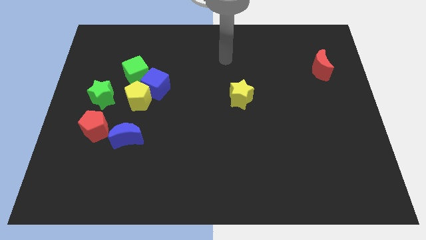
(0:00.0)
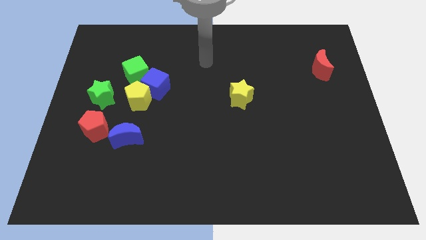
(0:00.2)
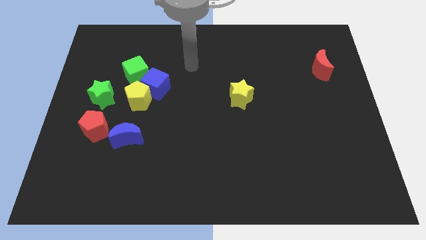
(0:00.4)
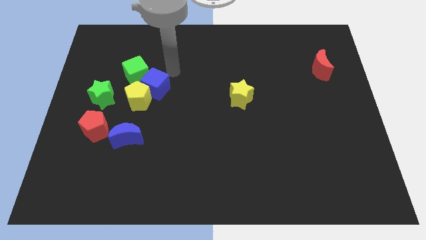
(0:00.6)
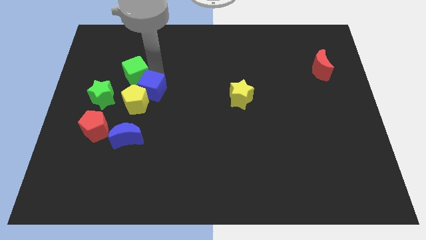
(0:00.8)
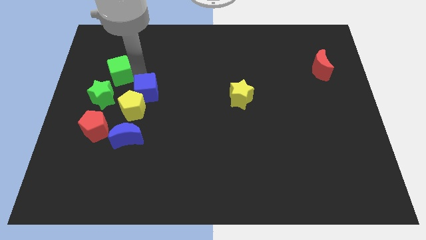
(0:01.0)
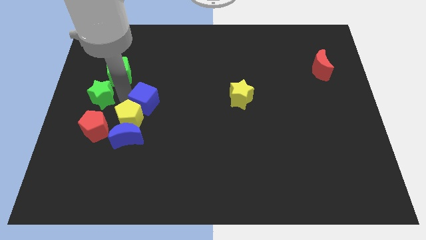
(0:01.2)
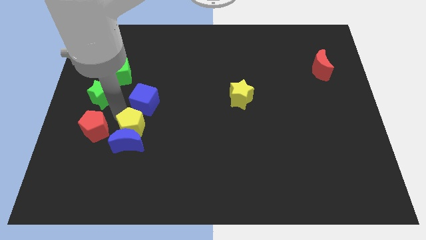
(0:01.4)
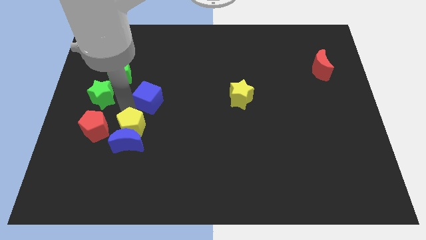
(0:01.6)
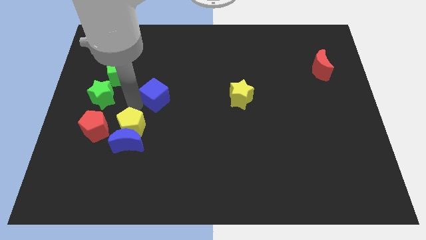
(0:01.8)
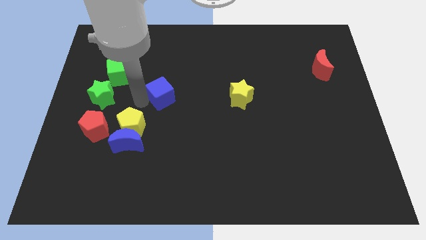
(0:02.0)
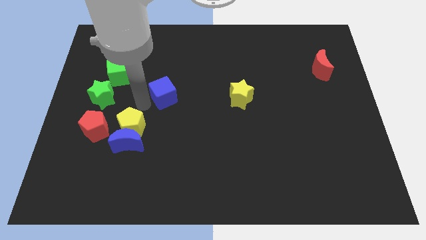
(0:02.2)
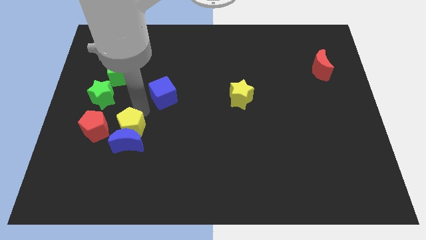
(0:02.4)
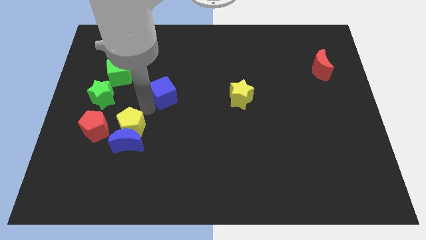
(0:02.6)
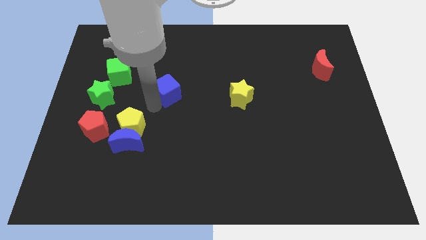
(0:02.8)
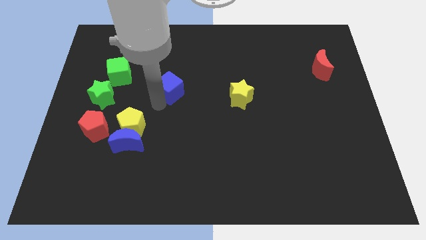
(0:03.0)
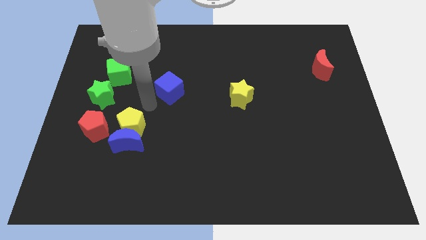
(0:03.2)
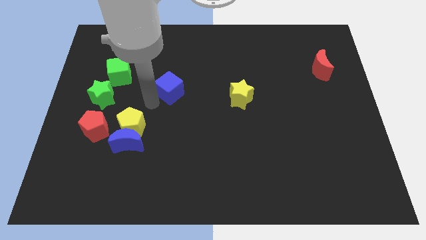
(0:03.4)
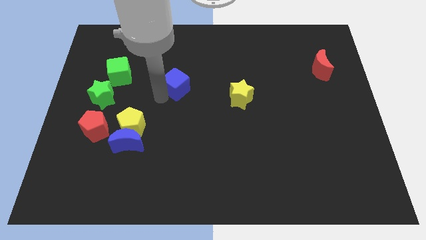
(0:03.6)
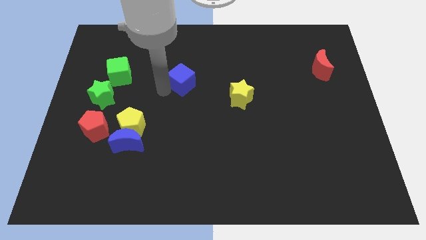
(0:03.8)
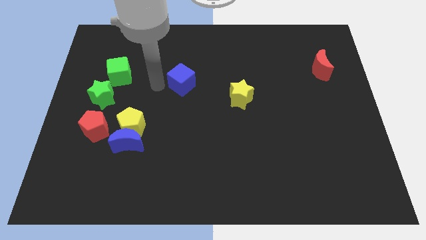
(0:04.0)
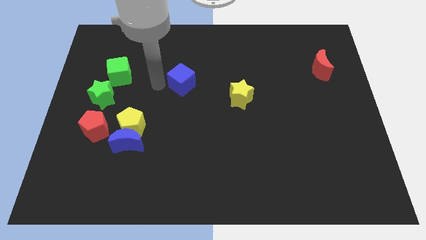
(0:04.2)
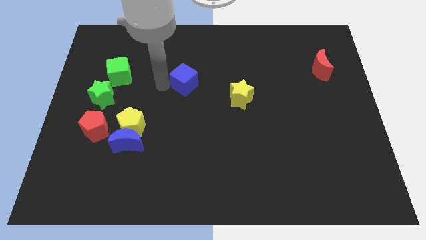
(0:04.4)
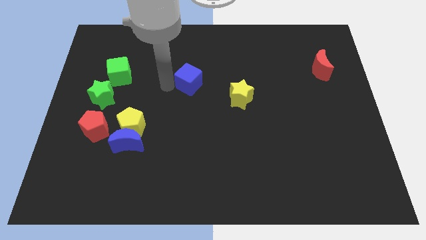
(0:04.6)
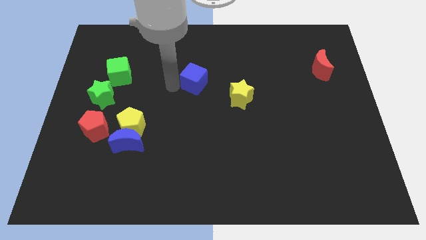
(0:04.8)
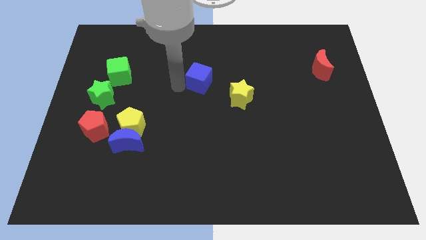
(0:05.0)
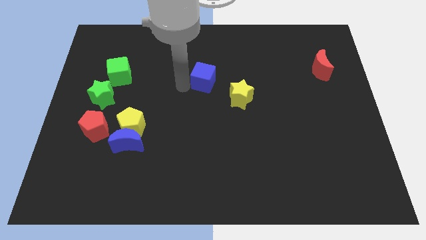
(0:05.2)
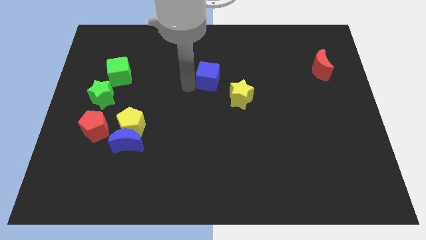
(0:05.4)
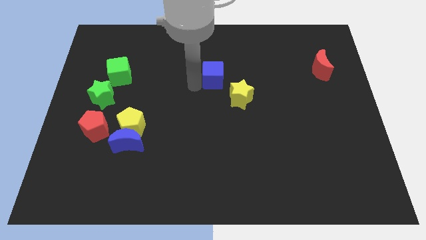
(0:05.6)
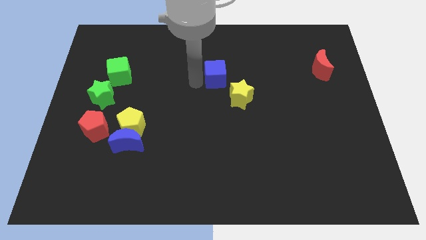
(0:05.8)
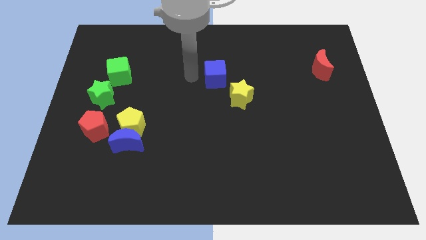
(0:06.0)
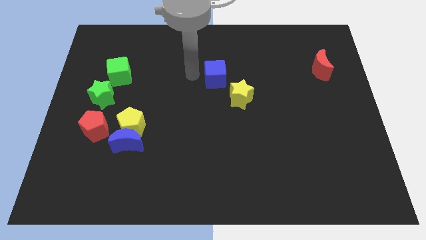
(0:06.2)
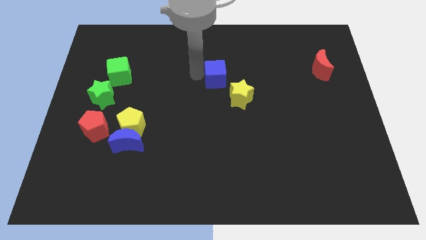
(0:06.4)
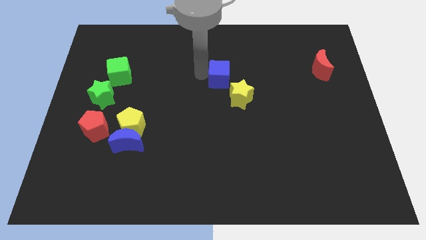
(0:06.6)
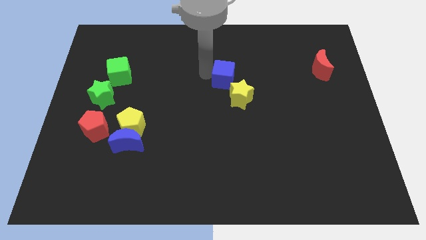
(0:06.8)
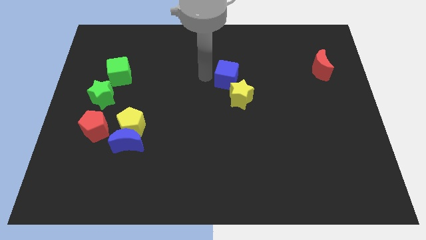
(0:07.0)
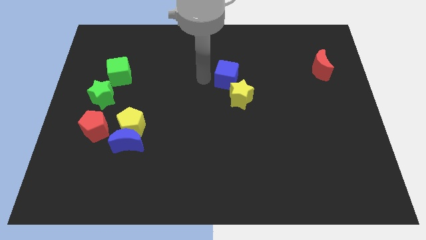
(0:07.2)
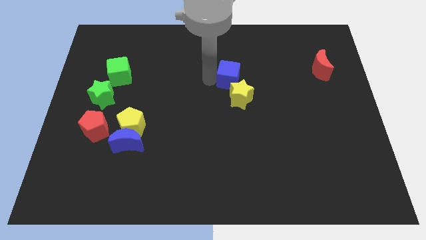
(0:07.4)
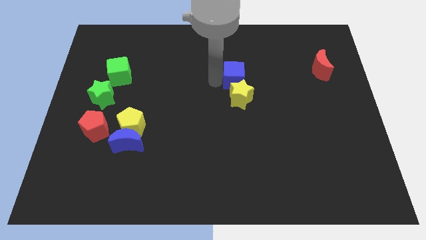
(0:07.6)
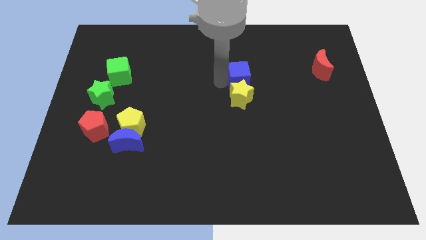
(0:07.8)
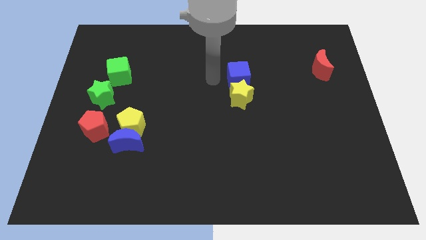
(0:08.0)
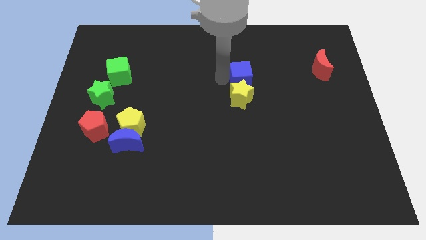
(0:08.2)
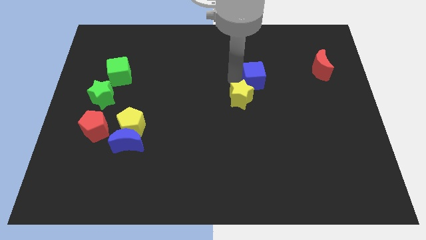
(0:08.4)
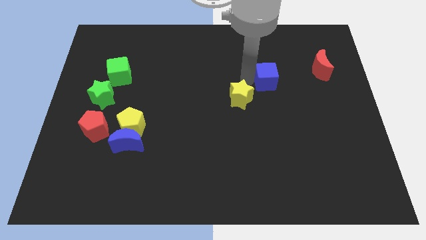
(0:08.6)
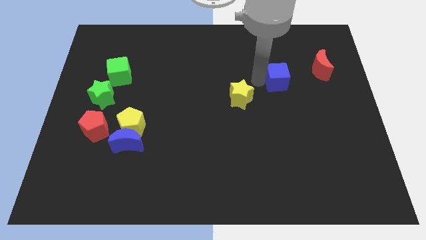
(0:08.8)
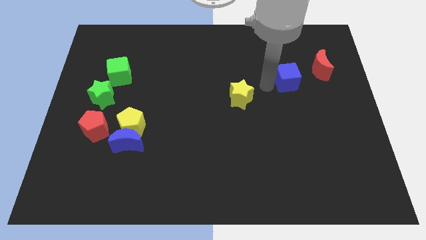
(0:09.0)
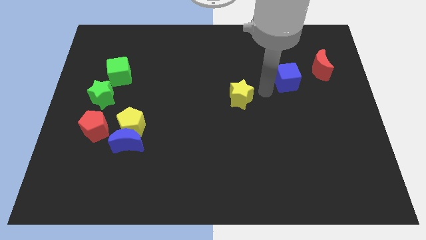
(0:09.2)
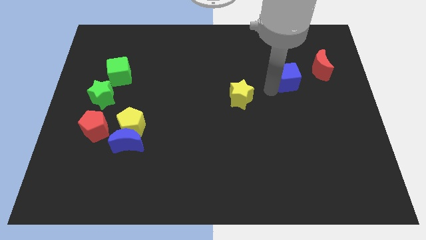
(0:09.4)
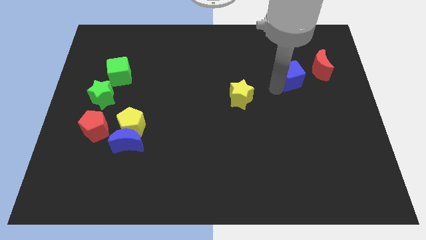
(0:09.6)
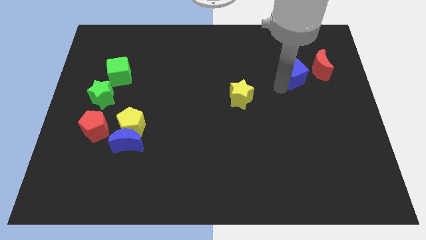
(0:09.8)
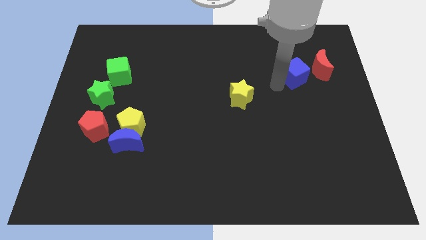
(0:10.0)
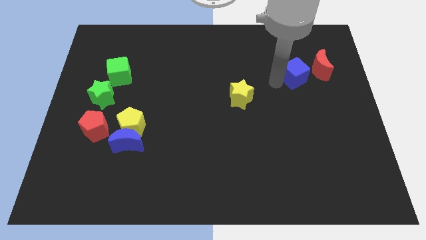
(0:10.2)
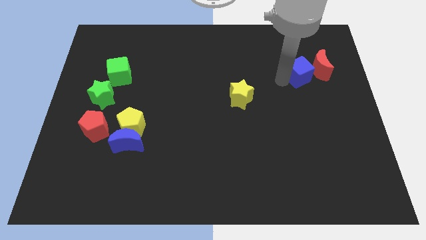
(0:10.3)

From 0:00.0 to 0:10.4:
put the blue cube close to the red moon

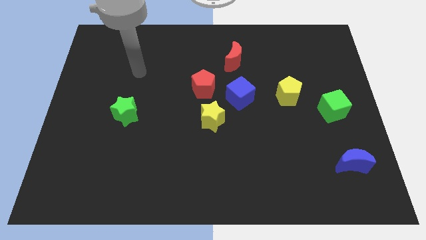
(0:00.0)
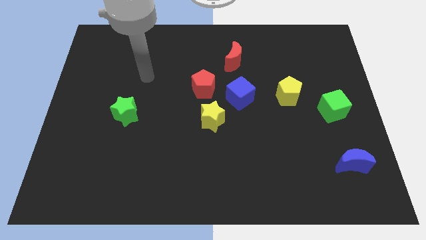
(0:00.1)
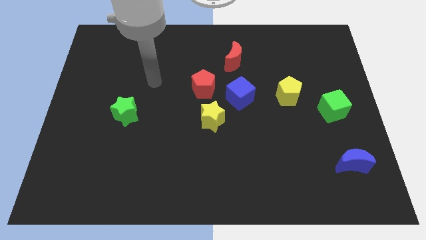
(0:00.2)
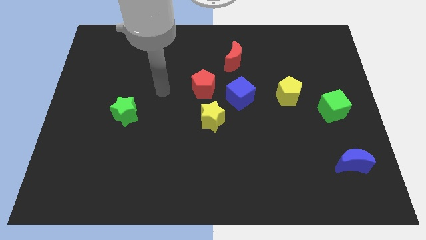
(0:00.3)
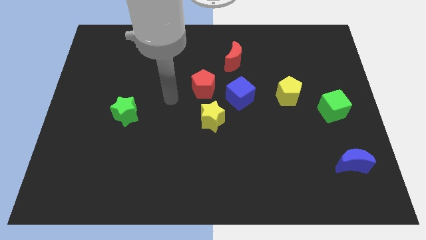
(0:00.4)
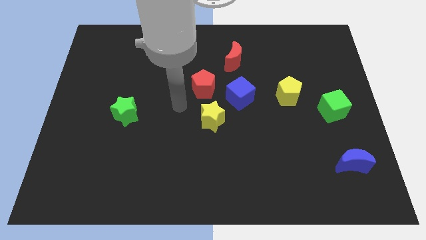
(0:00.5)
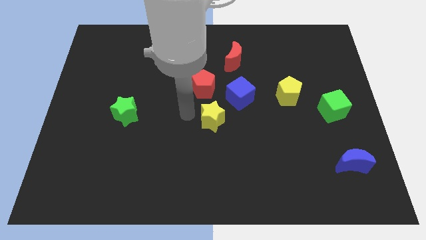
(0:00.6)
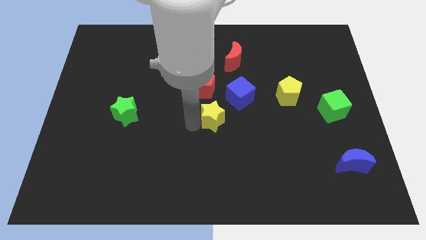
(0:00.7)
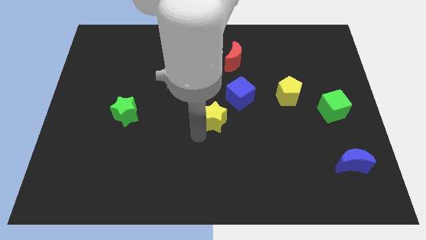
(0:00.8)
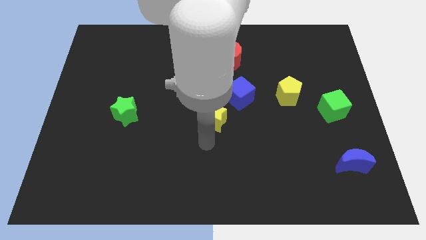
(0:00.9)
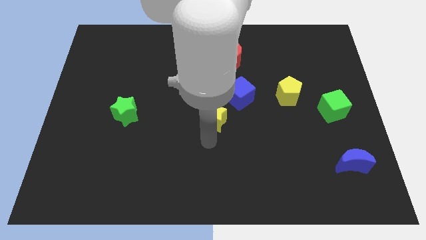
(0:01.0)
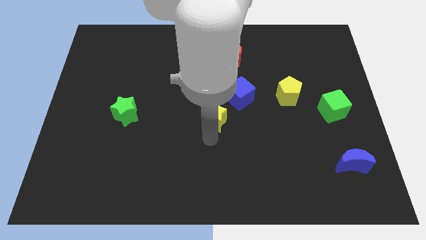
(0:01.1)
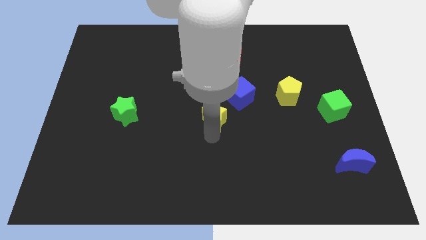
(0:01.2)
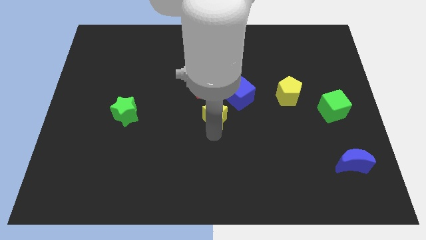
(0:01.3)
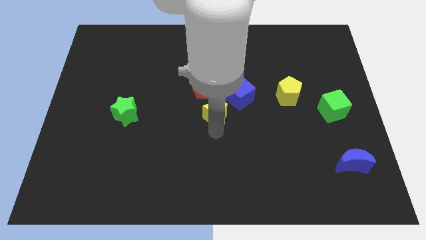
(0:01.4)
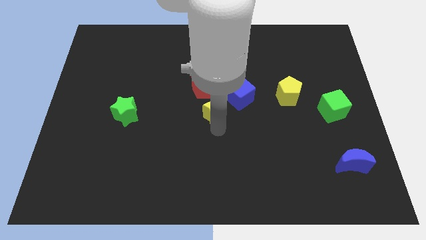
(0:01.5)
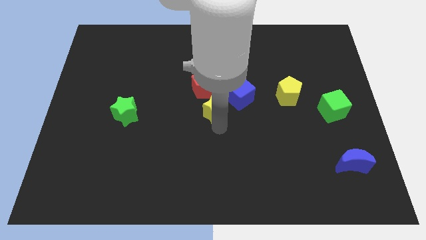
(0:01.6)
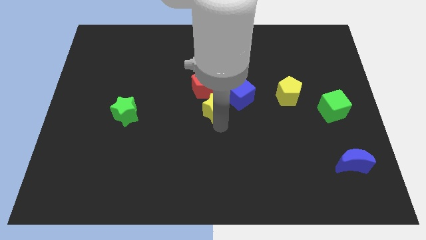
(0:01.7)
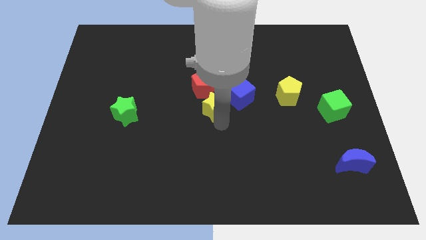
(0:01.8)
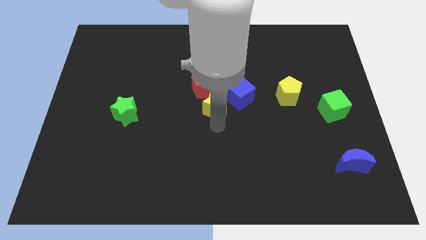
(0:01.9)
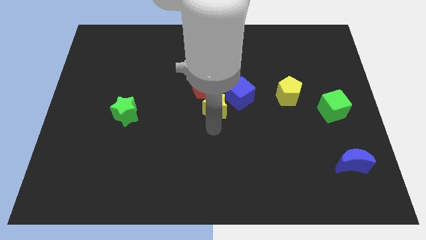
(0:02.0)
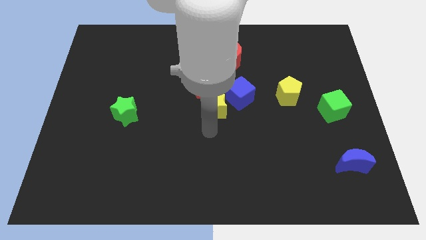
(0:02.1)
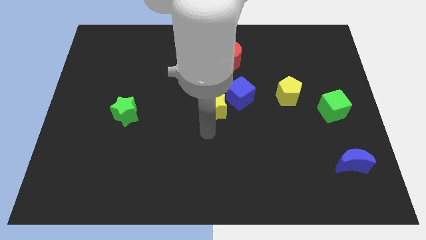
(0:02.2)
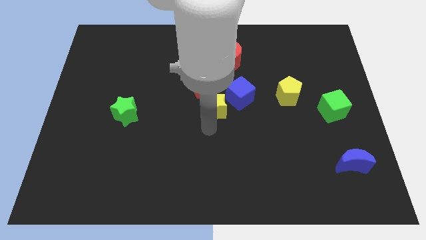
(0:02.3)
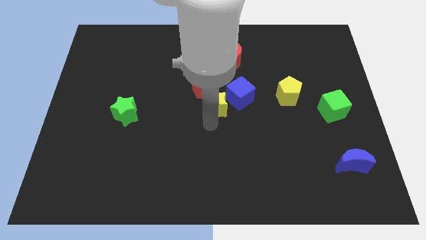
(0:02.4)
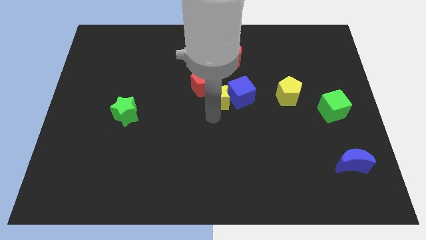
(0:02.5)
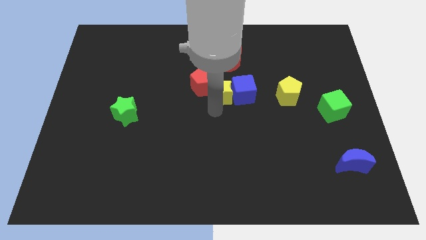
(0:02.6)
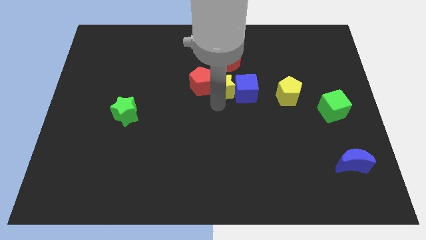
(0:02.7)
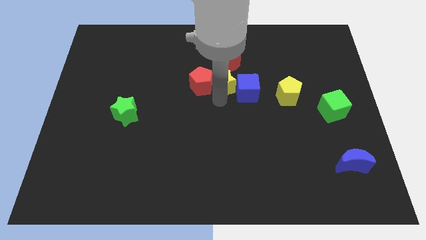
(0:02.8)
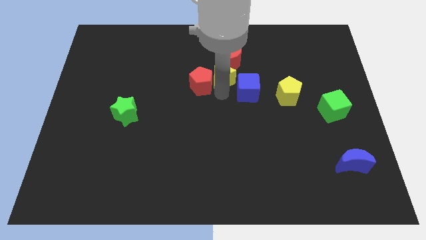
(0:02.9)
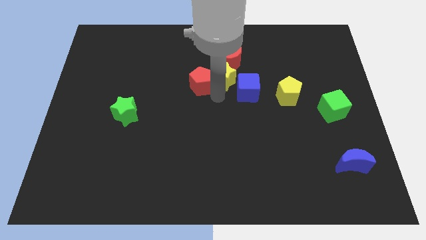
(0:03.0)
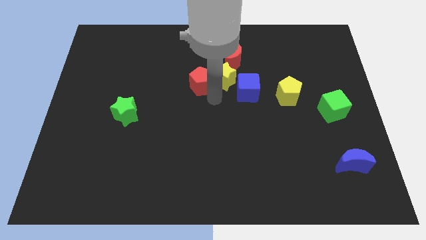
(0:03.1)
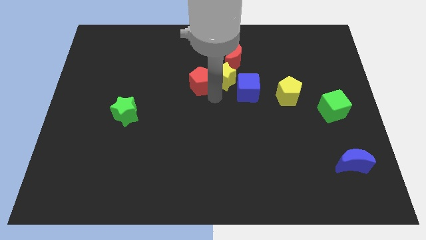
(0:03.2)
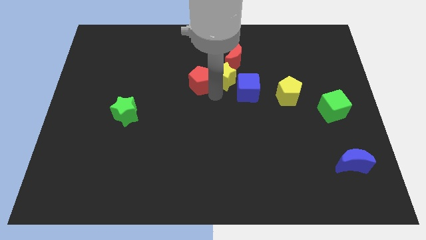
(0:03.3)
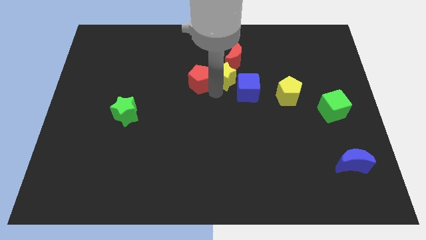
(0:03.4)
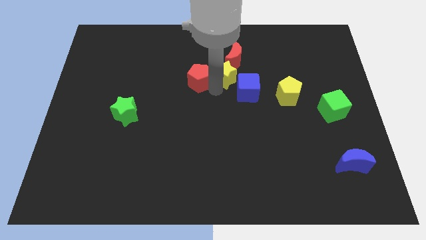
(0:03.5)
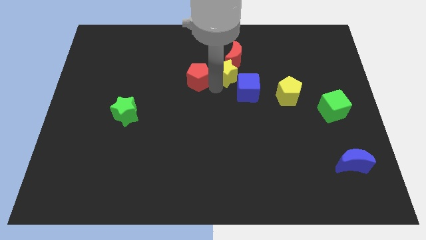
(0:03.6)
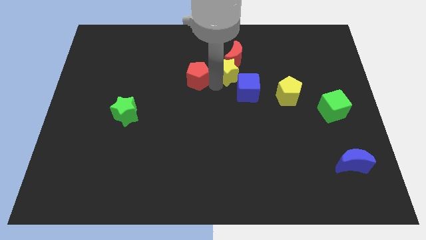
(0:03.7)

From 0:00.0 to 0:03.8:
move the yellow star towards the red moon
